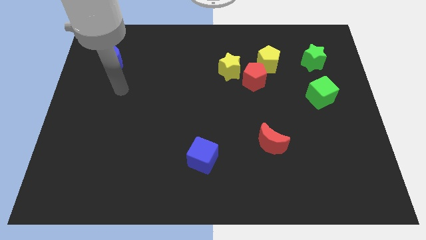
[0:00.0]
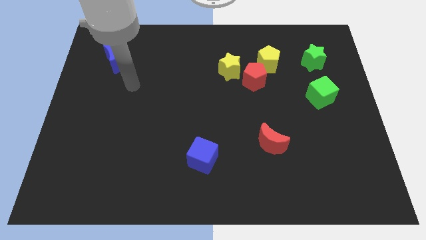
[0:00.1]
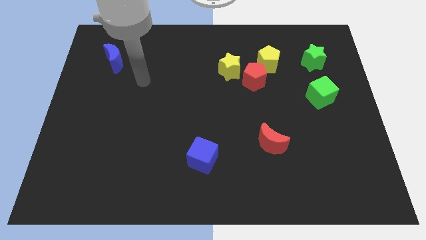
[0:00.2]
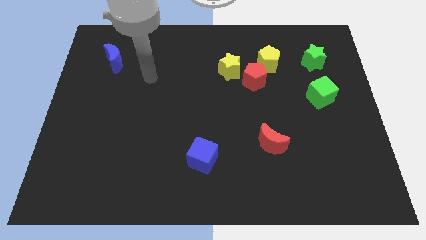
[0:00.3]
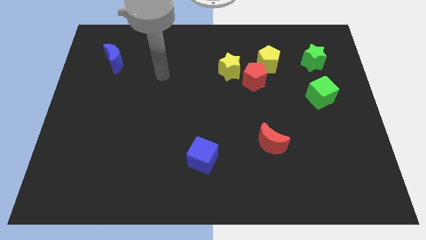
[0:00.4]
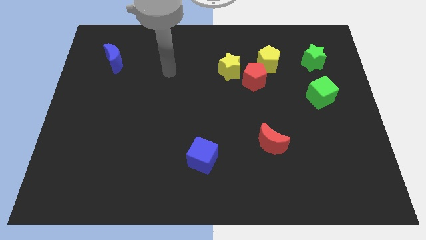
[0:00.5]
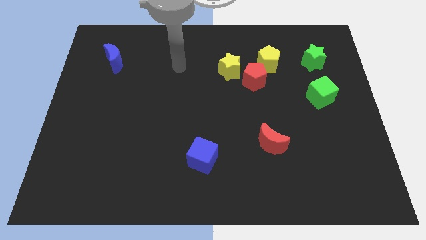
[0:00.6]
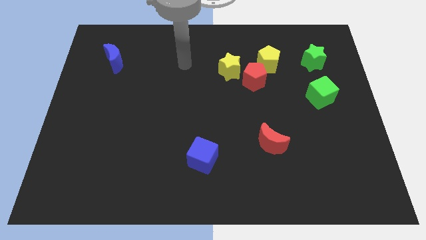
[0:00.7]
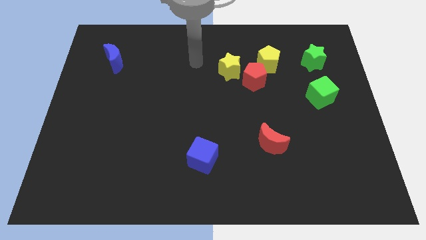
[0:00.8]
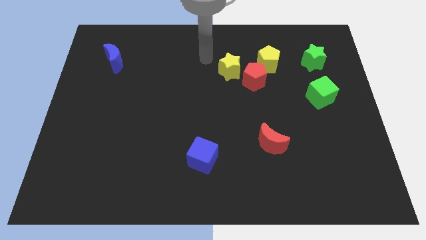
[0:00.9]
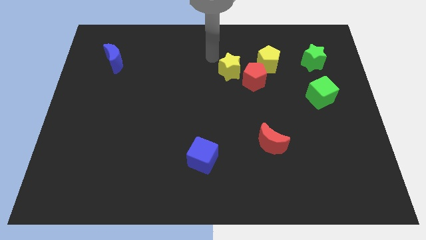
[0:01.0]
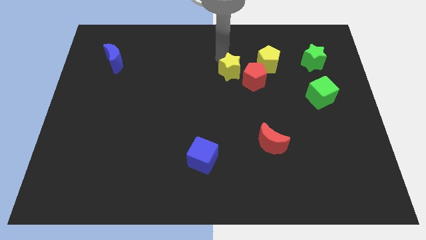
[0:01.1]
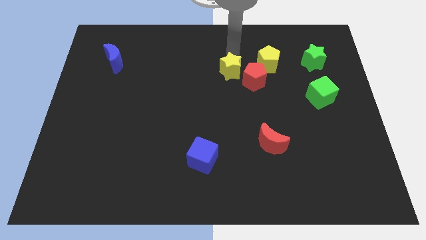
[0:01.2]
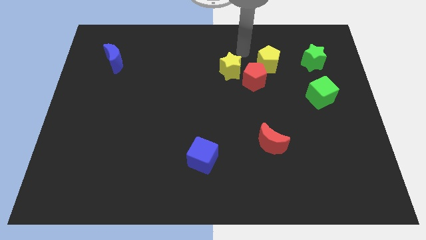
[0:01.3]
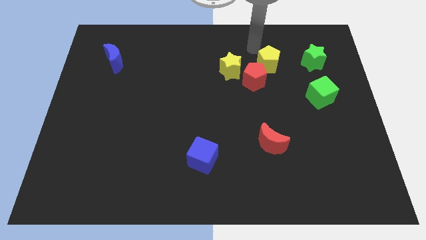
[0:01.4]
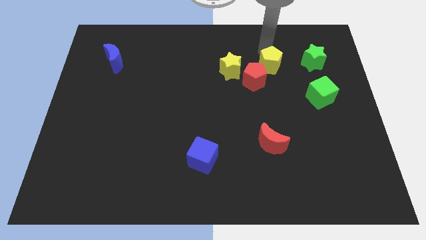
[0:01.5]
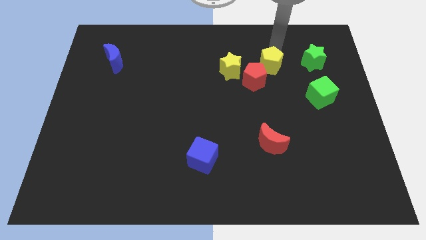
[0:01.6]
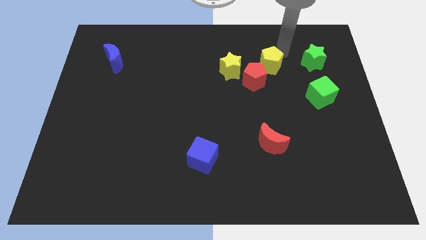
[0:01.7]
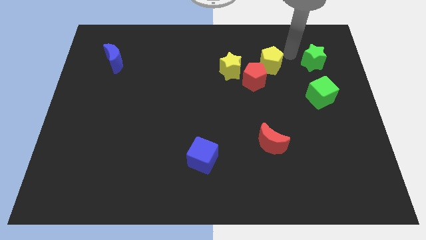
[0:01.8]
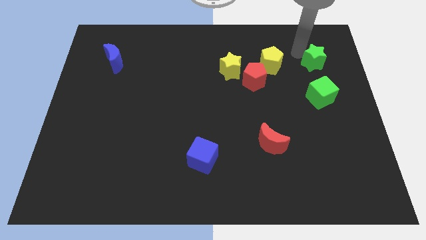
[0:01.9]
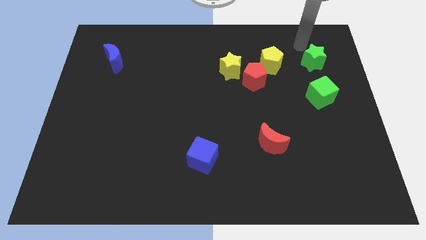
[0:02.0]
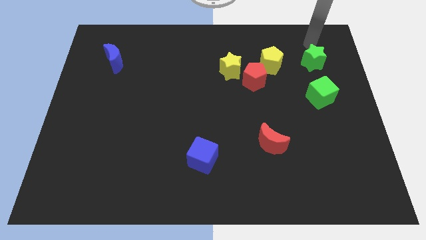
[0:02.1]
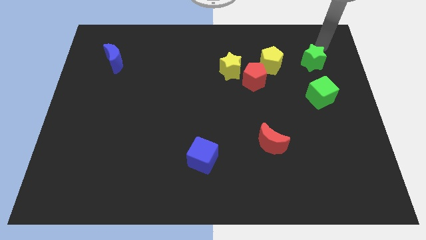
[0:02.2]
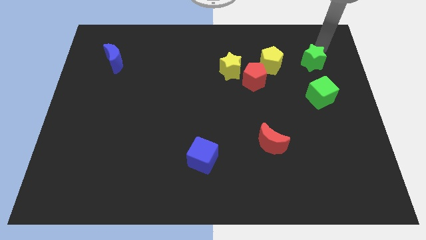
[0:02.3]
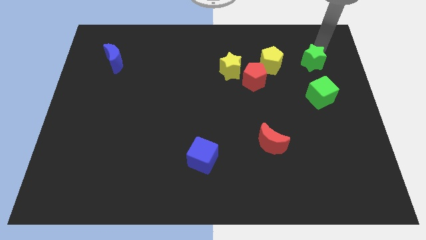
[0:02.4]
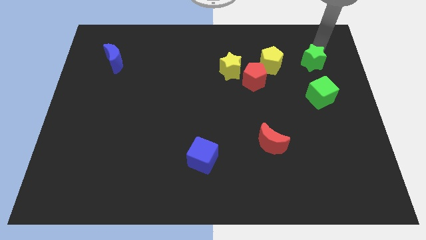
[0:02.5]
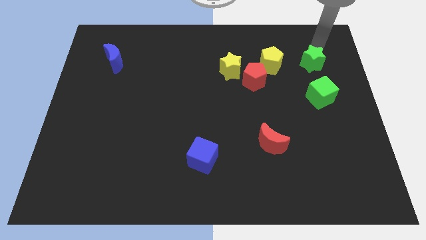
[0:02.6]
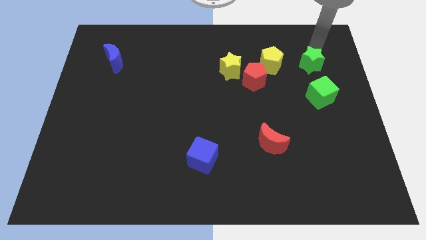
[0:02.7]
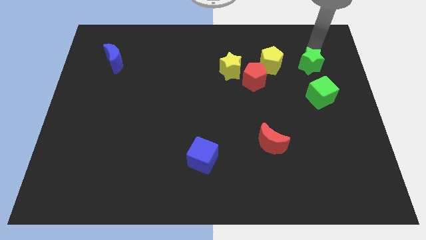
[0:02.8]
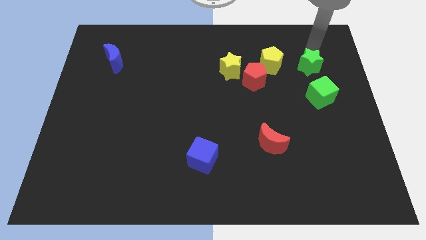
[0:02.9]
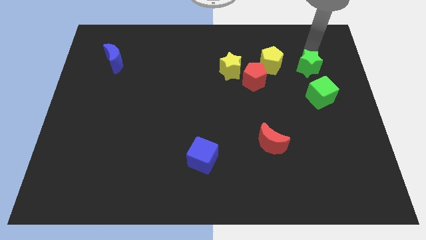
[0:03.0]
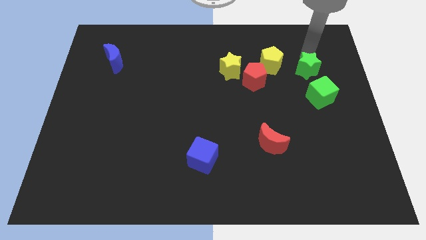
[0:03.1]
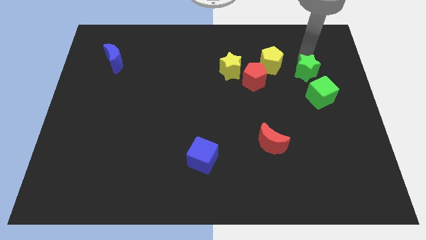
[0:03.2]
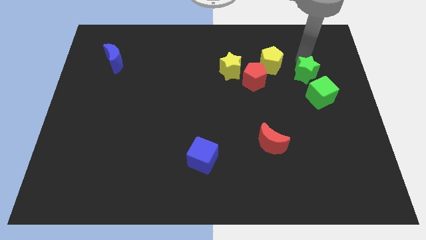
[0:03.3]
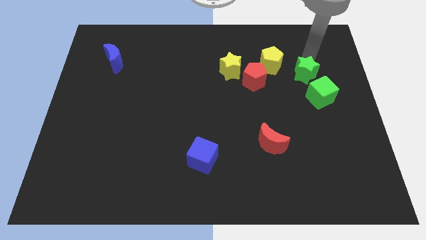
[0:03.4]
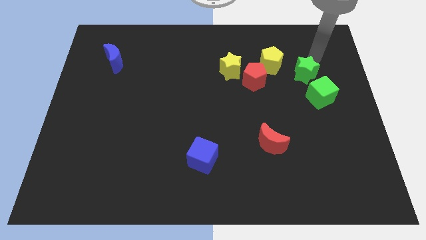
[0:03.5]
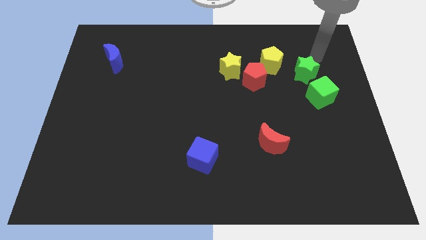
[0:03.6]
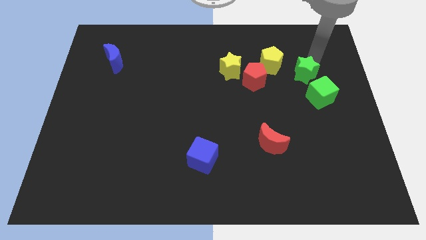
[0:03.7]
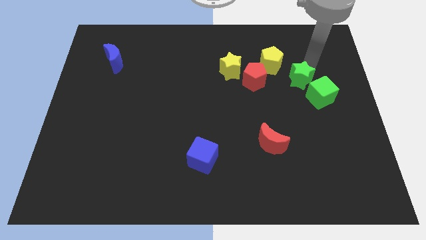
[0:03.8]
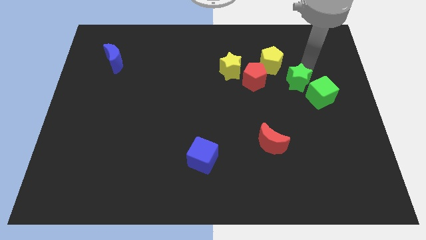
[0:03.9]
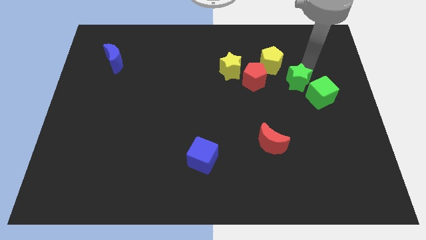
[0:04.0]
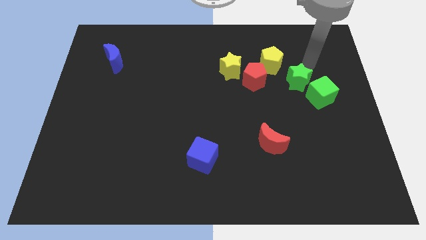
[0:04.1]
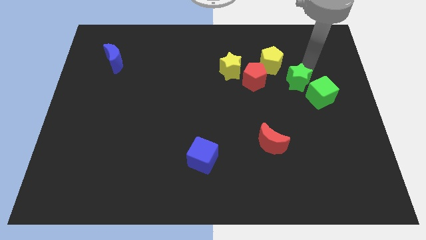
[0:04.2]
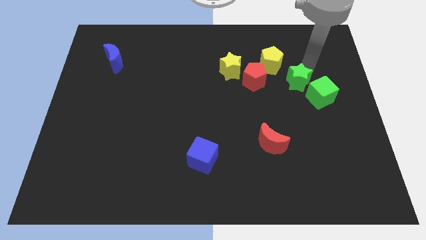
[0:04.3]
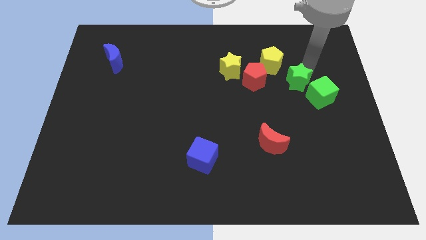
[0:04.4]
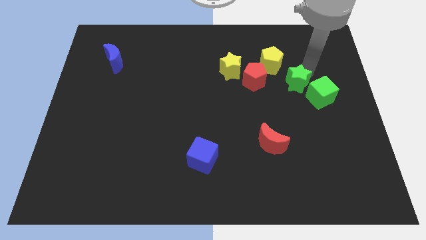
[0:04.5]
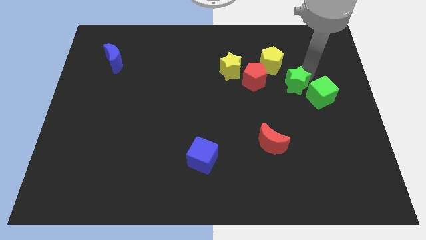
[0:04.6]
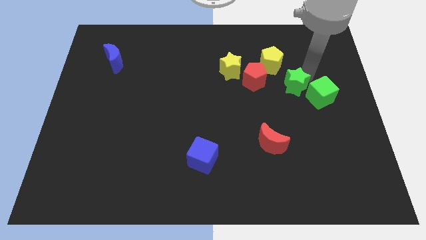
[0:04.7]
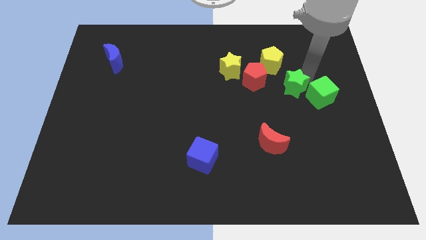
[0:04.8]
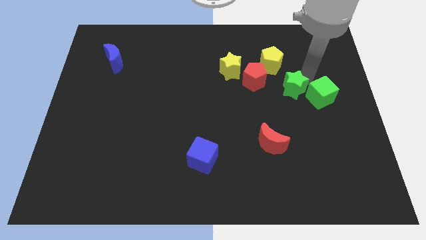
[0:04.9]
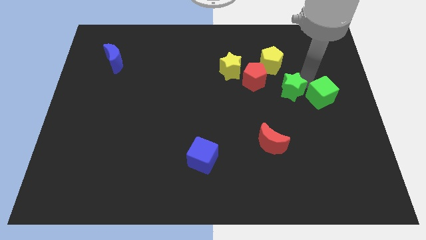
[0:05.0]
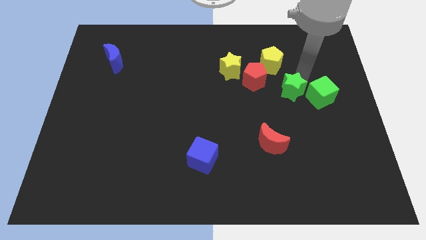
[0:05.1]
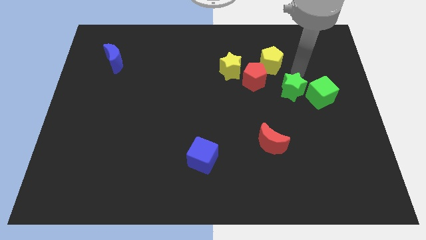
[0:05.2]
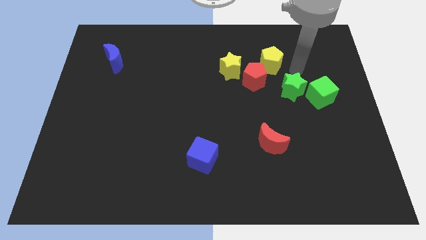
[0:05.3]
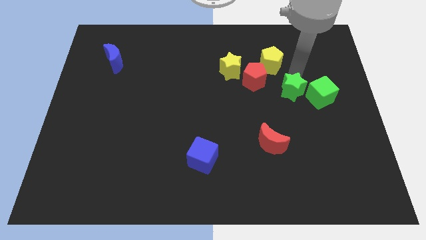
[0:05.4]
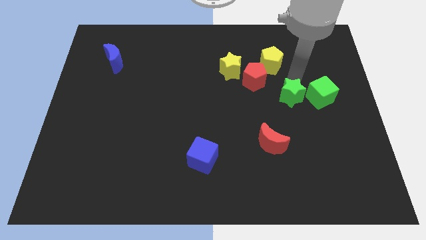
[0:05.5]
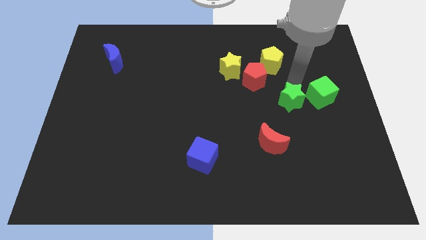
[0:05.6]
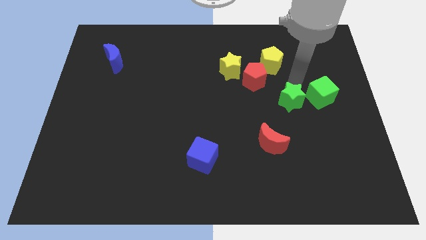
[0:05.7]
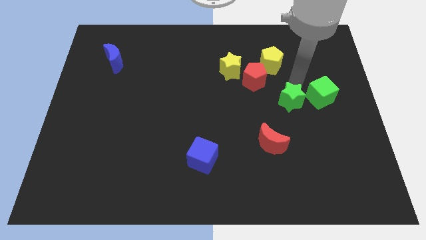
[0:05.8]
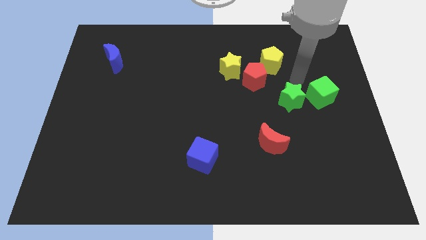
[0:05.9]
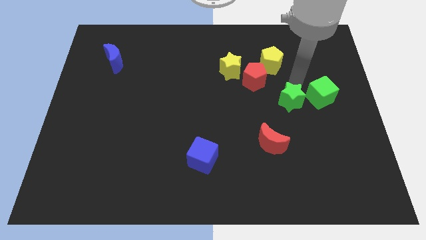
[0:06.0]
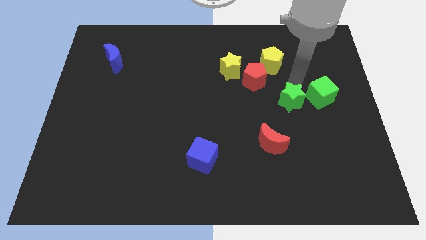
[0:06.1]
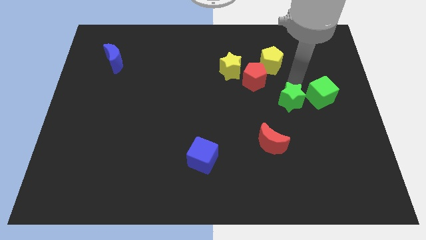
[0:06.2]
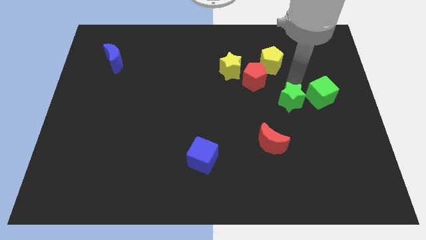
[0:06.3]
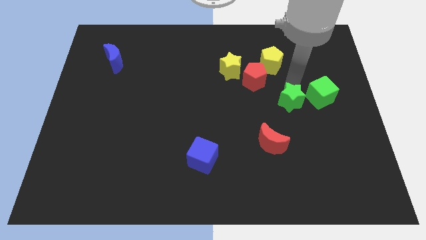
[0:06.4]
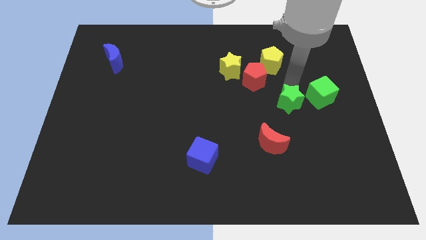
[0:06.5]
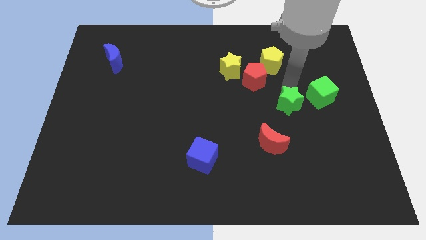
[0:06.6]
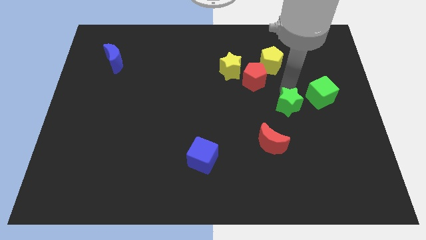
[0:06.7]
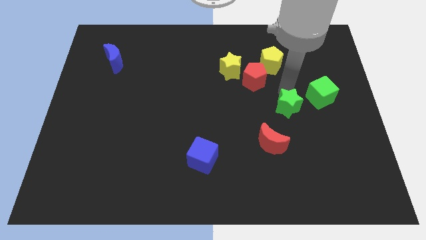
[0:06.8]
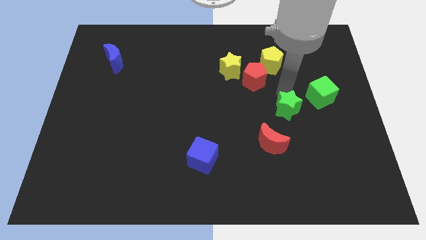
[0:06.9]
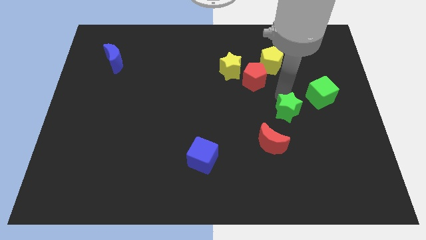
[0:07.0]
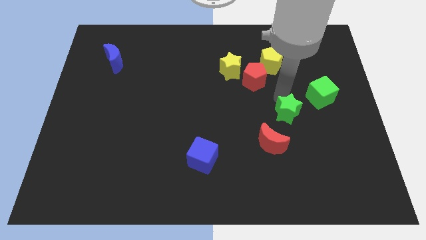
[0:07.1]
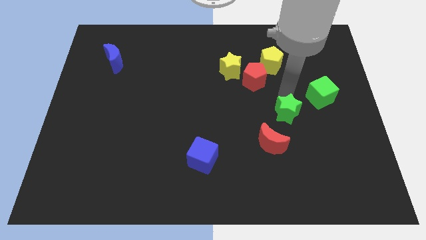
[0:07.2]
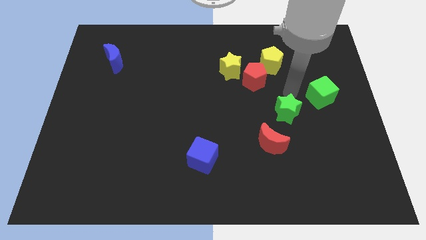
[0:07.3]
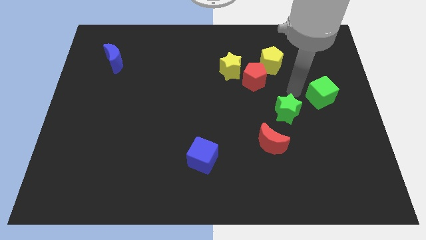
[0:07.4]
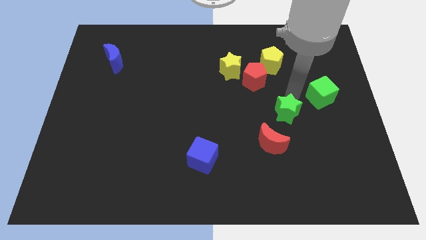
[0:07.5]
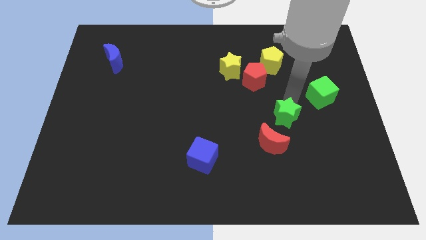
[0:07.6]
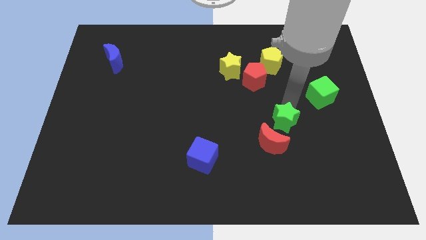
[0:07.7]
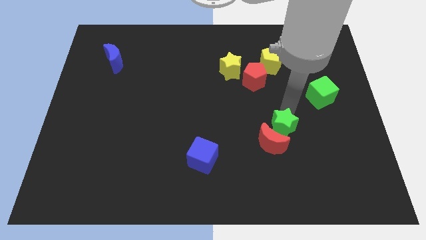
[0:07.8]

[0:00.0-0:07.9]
slide the green star towards the red moon
